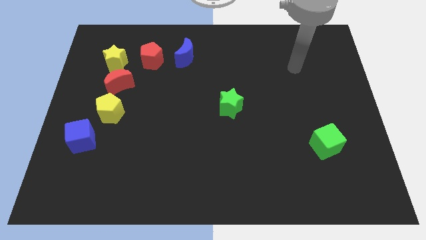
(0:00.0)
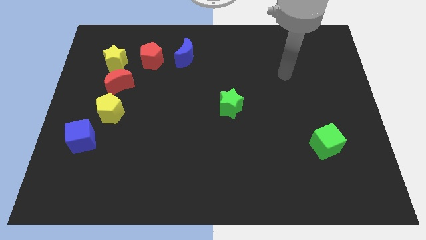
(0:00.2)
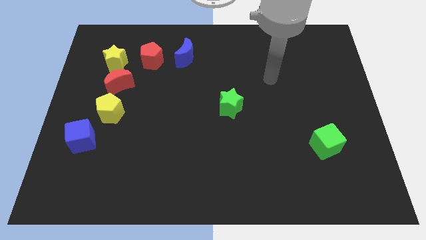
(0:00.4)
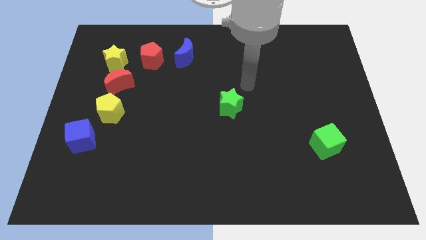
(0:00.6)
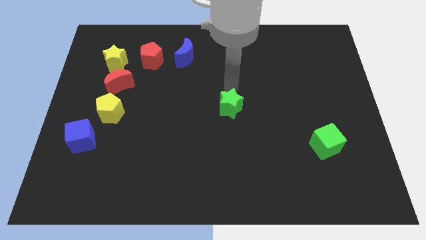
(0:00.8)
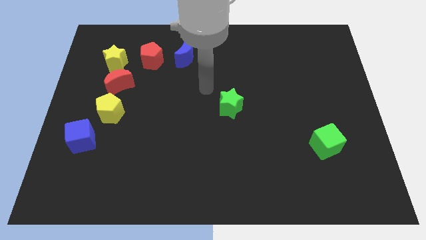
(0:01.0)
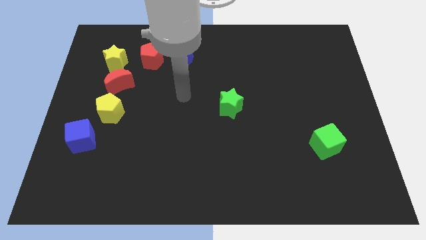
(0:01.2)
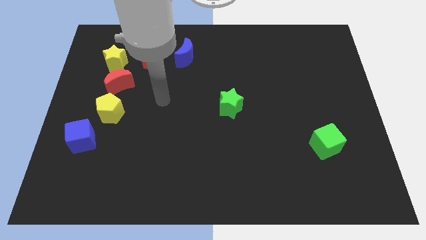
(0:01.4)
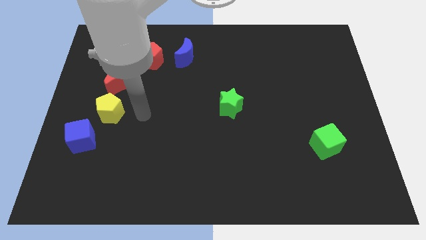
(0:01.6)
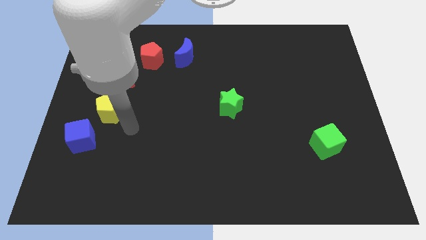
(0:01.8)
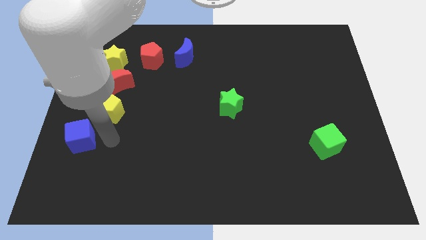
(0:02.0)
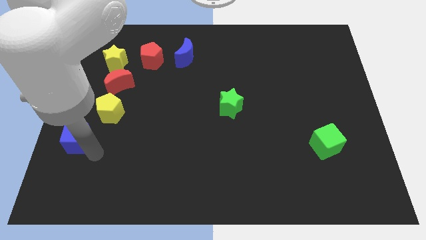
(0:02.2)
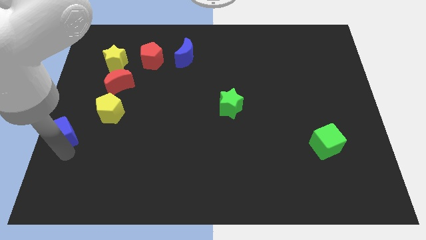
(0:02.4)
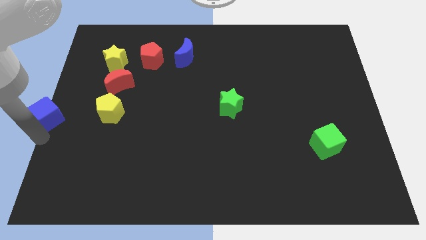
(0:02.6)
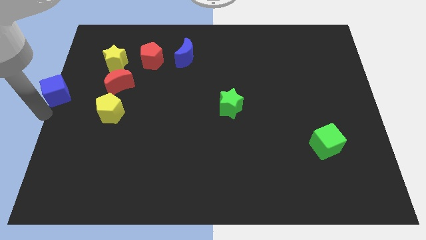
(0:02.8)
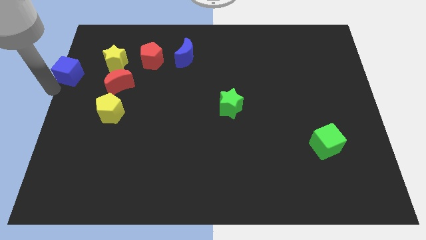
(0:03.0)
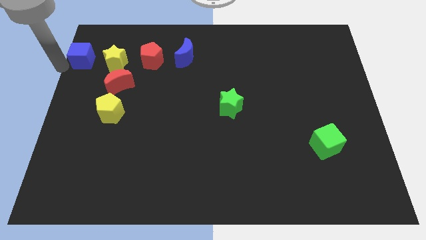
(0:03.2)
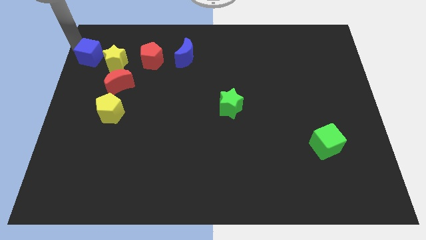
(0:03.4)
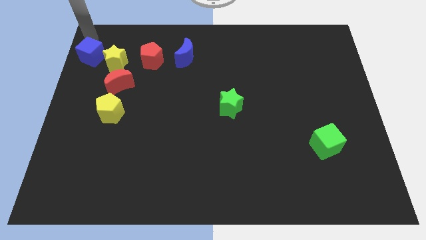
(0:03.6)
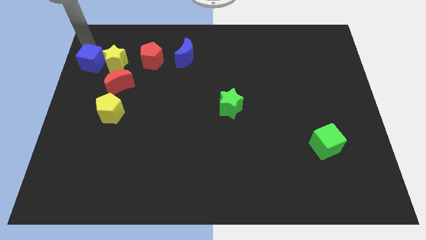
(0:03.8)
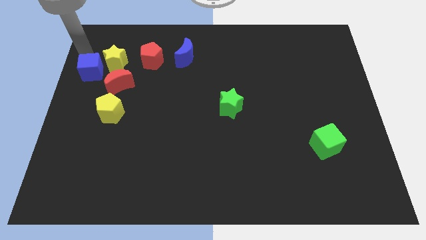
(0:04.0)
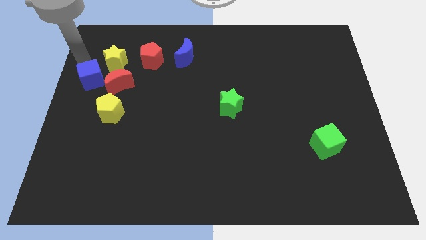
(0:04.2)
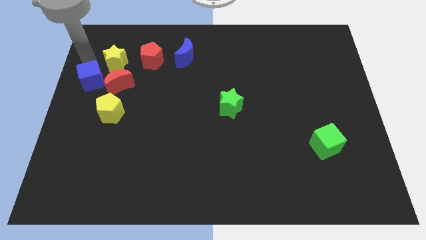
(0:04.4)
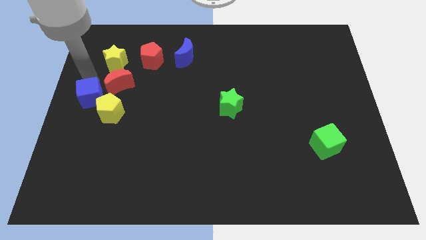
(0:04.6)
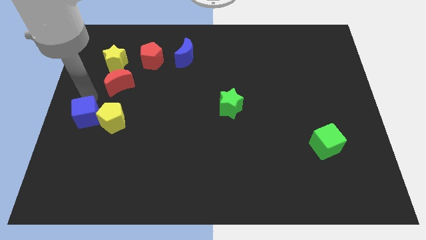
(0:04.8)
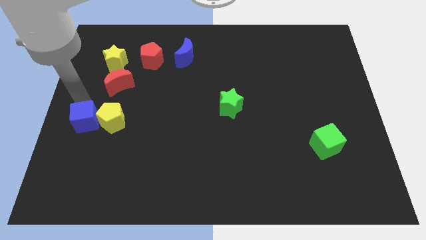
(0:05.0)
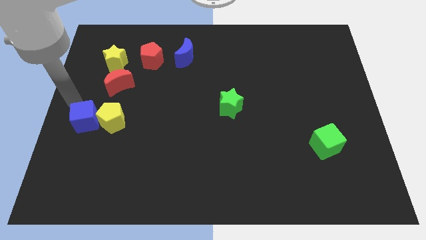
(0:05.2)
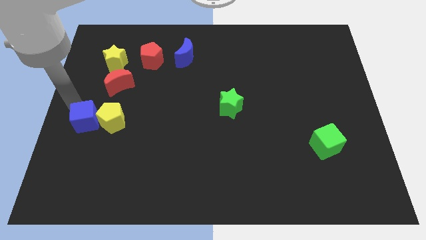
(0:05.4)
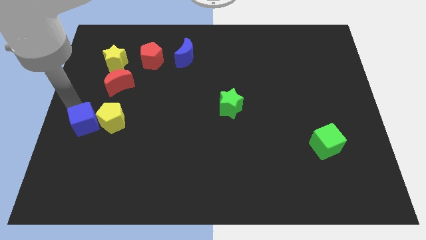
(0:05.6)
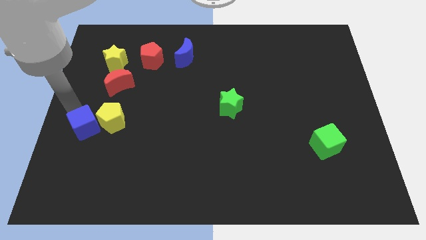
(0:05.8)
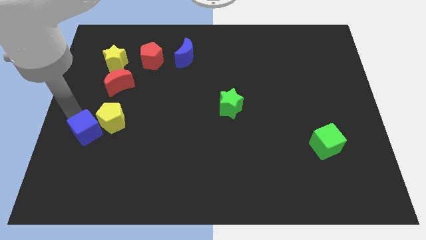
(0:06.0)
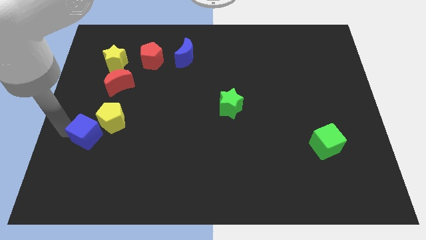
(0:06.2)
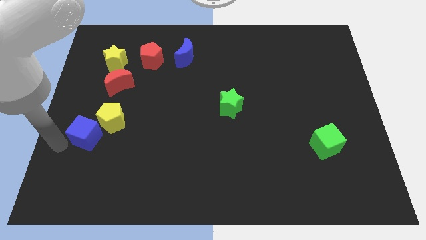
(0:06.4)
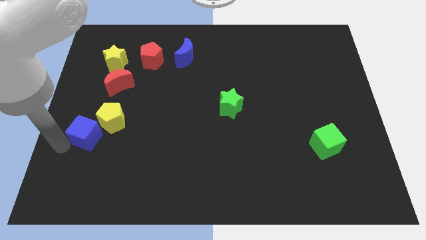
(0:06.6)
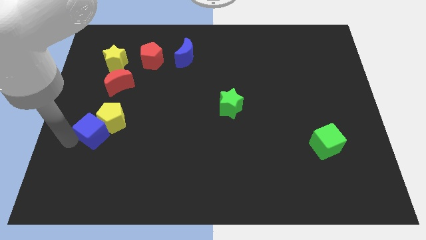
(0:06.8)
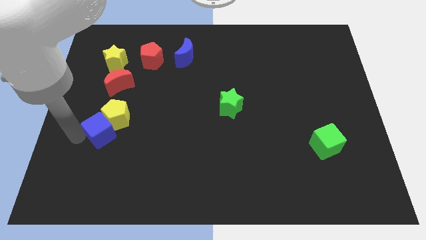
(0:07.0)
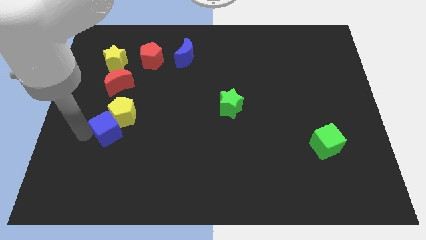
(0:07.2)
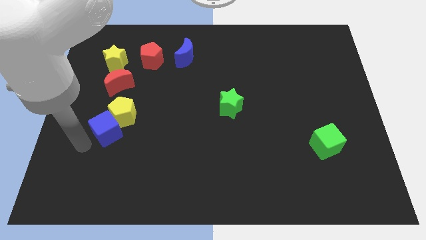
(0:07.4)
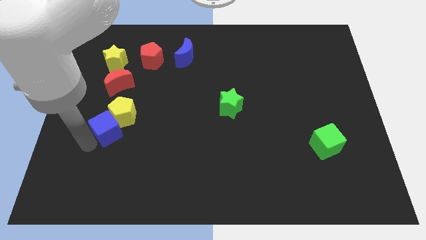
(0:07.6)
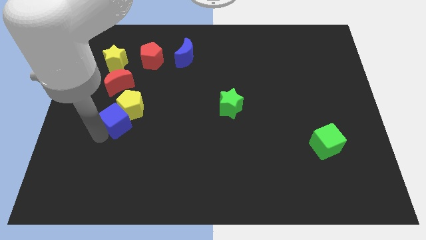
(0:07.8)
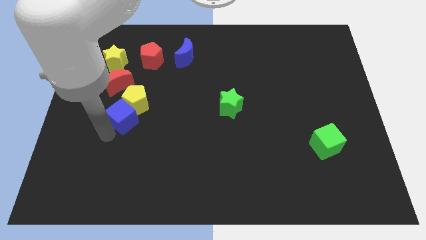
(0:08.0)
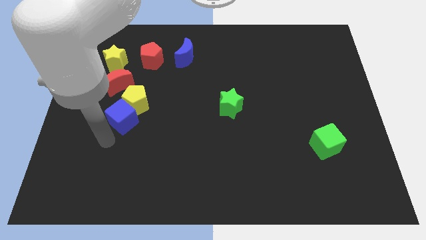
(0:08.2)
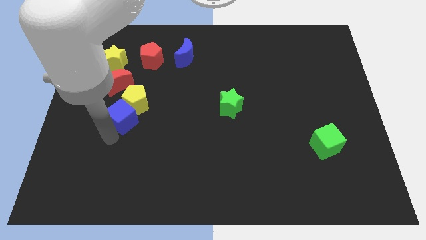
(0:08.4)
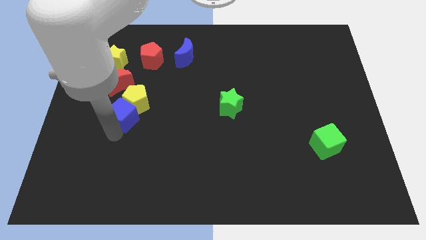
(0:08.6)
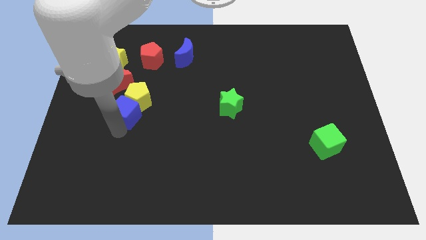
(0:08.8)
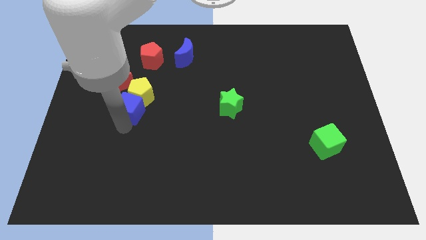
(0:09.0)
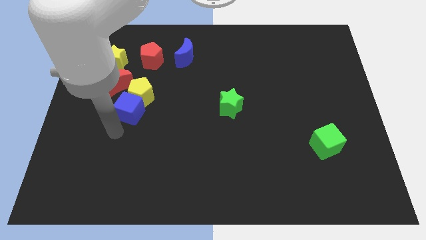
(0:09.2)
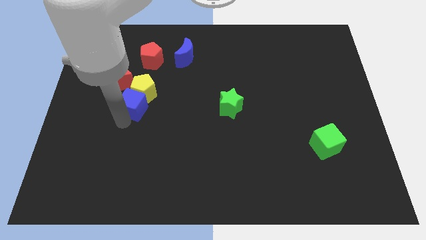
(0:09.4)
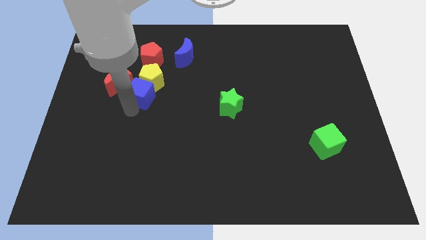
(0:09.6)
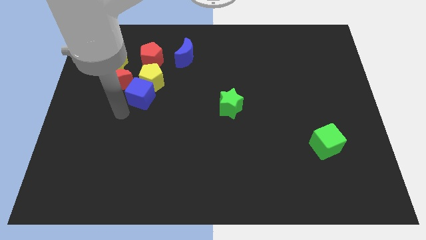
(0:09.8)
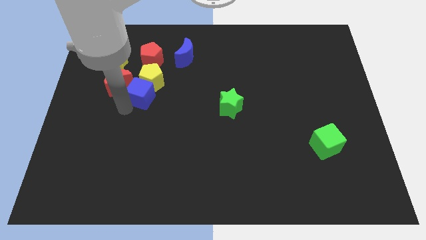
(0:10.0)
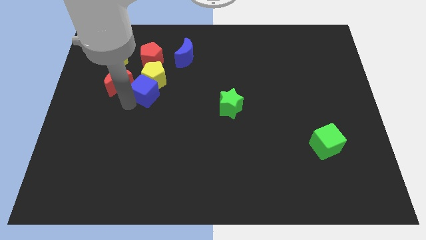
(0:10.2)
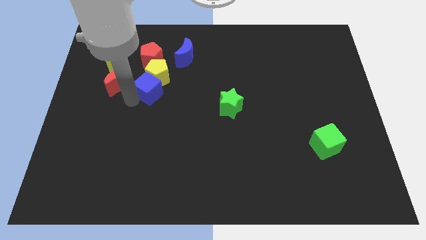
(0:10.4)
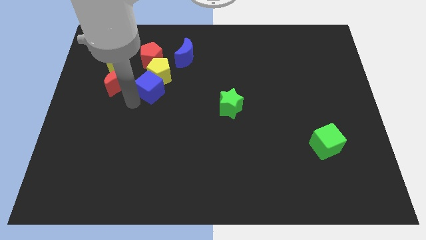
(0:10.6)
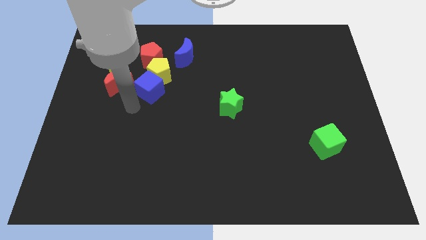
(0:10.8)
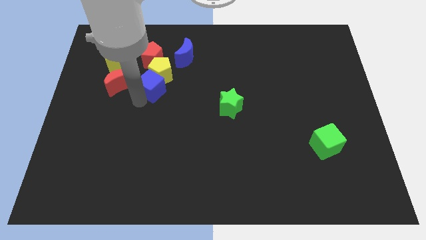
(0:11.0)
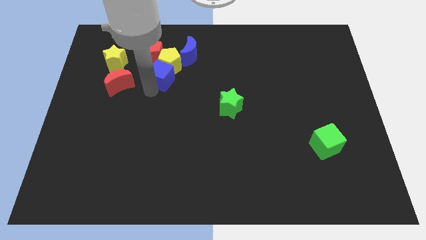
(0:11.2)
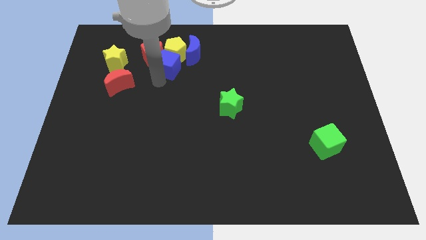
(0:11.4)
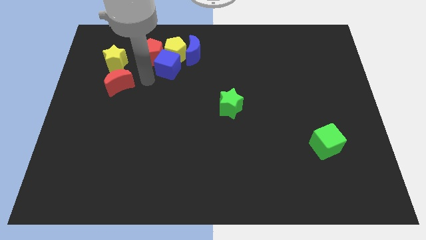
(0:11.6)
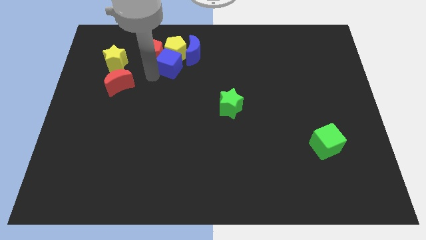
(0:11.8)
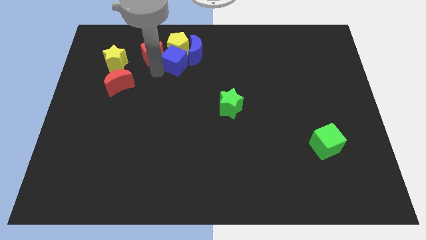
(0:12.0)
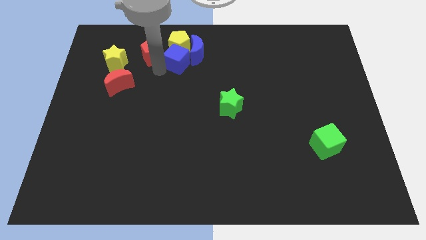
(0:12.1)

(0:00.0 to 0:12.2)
push the blue cube to the blue moon
